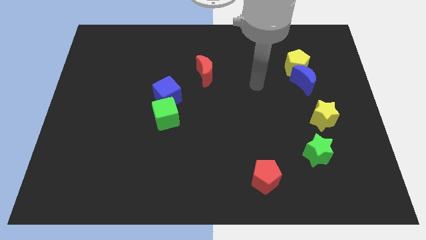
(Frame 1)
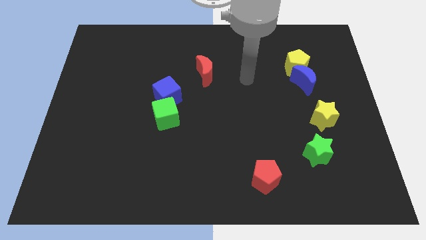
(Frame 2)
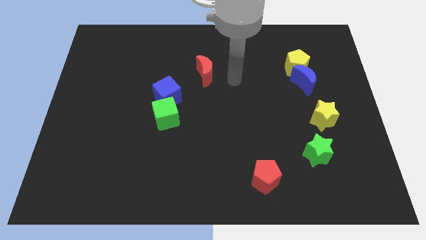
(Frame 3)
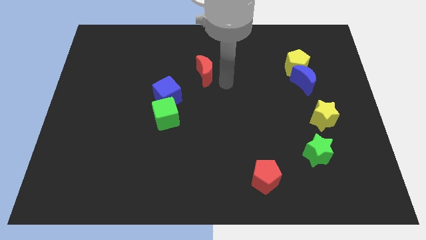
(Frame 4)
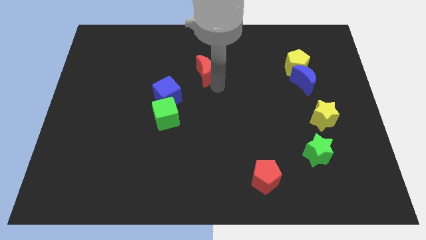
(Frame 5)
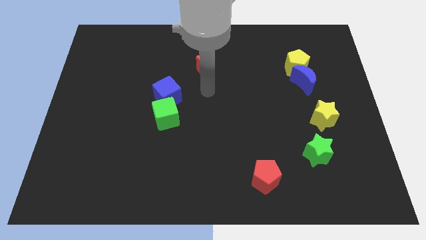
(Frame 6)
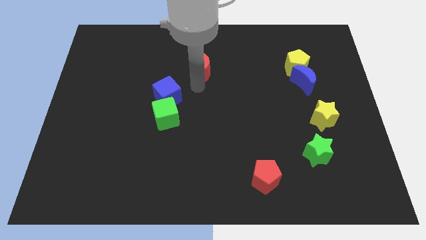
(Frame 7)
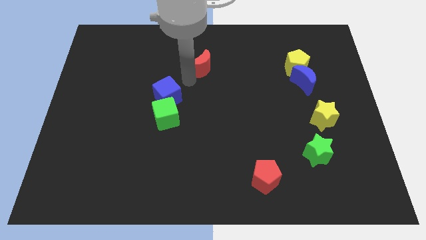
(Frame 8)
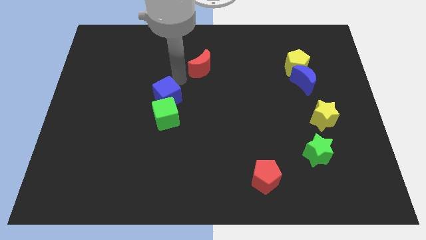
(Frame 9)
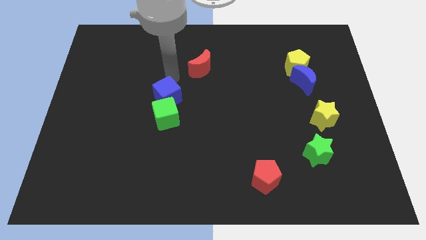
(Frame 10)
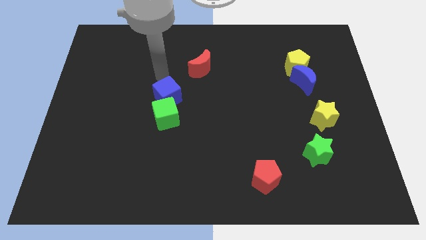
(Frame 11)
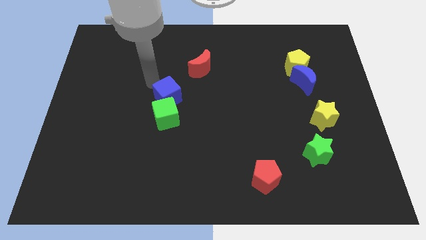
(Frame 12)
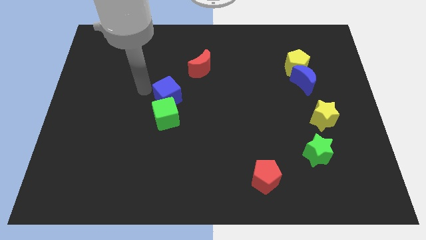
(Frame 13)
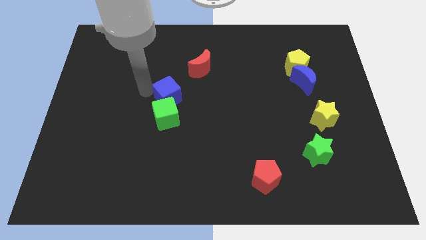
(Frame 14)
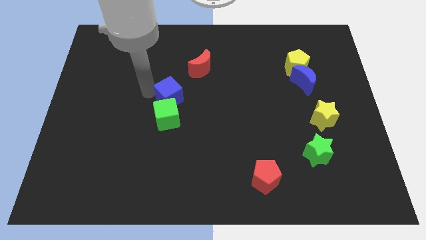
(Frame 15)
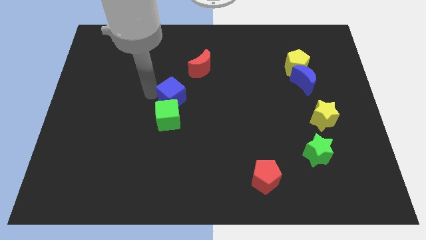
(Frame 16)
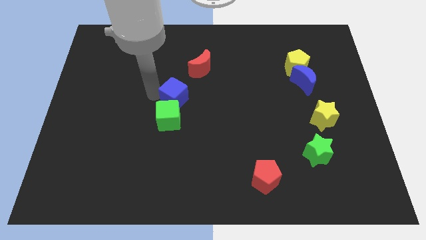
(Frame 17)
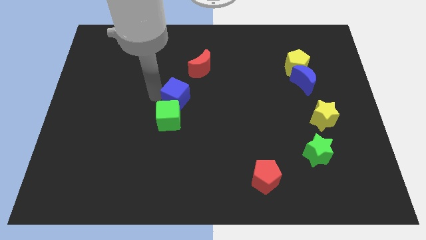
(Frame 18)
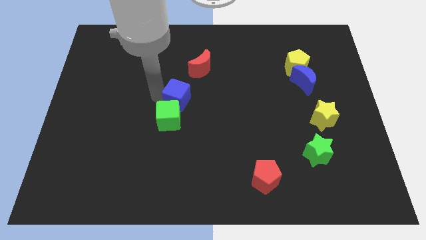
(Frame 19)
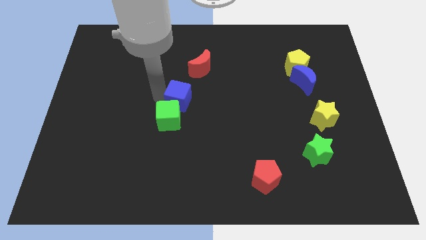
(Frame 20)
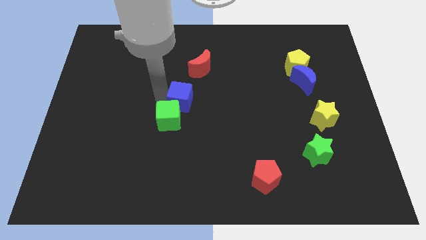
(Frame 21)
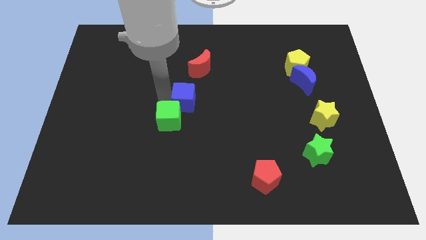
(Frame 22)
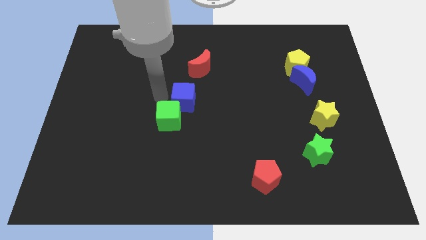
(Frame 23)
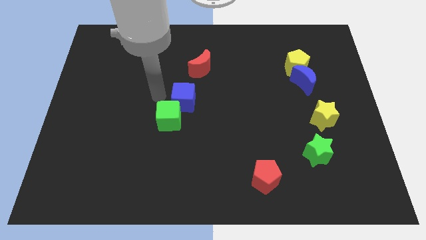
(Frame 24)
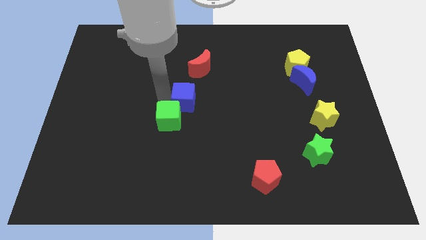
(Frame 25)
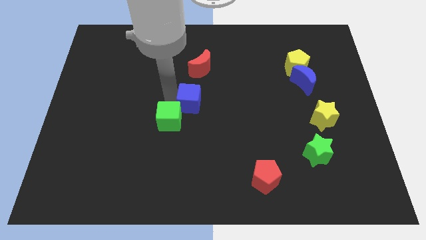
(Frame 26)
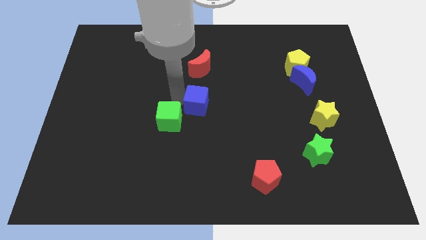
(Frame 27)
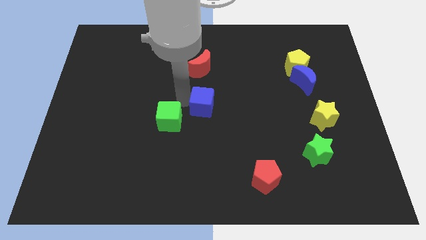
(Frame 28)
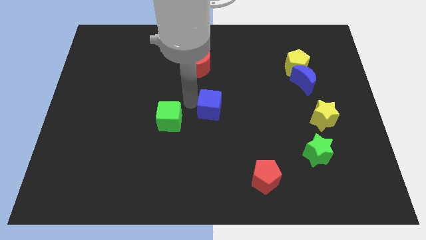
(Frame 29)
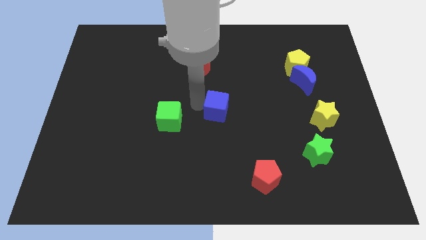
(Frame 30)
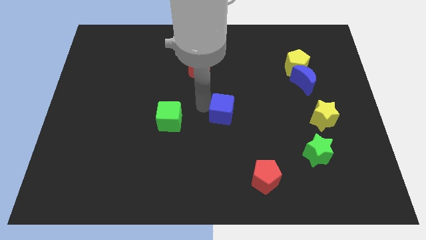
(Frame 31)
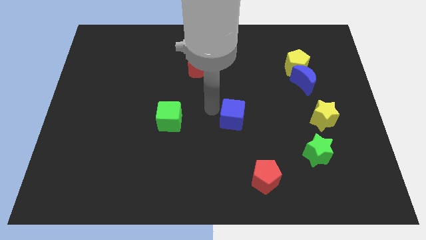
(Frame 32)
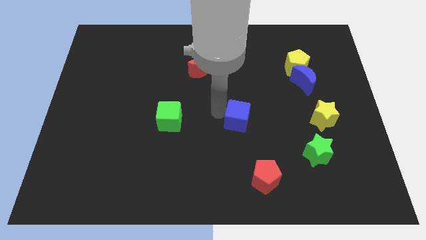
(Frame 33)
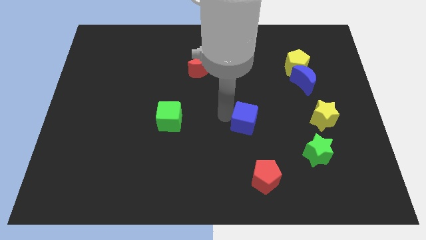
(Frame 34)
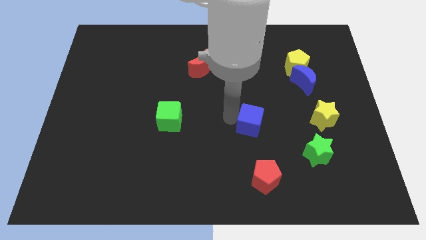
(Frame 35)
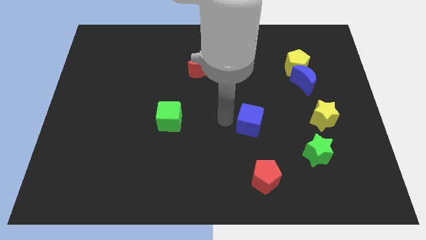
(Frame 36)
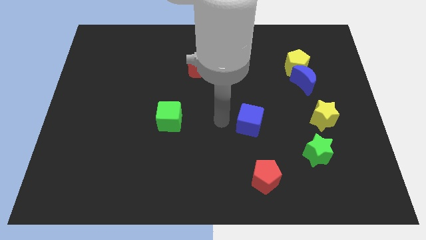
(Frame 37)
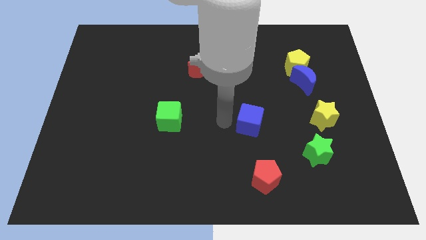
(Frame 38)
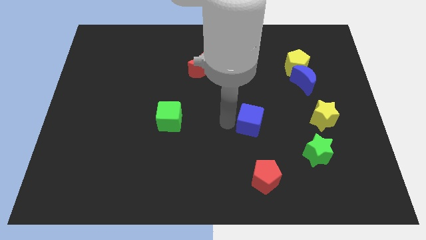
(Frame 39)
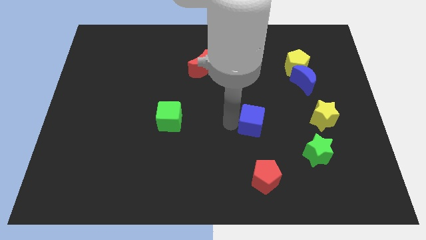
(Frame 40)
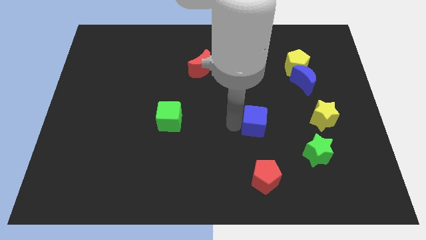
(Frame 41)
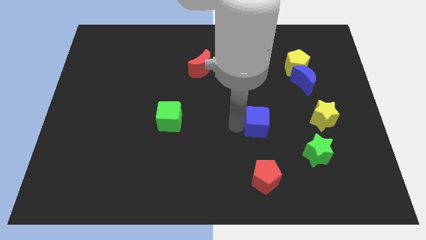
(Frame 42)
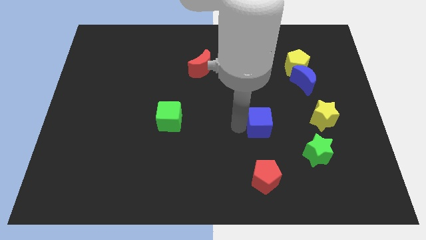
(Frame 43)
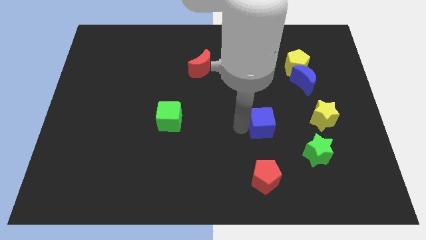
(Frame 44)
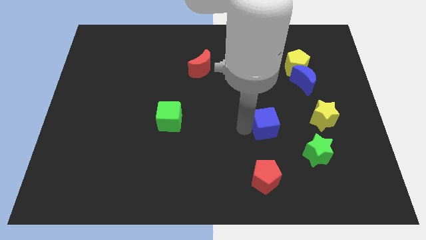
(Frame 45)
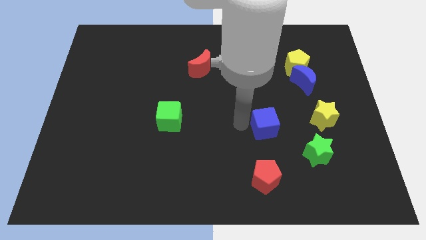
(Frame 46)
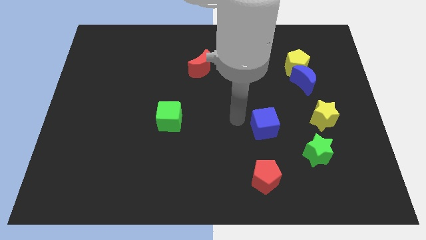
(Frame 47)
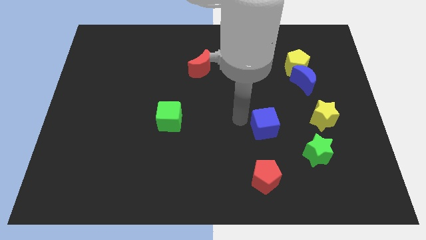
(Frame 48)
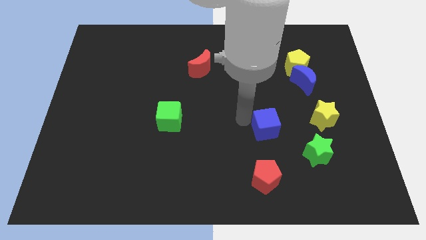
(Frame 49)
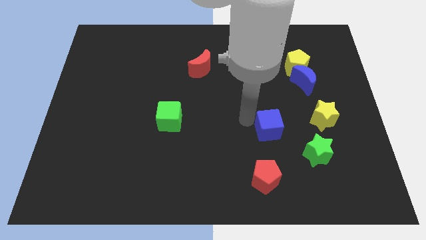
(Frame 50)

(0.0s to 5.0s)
slide the blue cube to the top left side of the green star

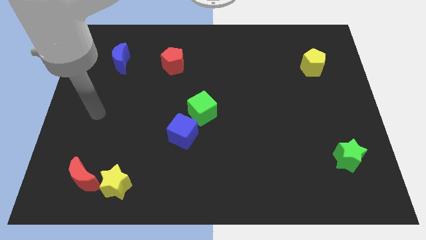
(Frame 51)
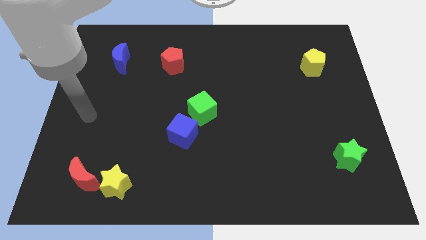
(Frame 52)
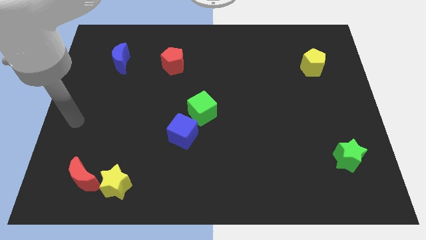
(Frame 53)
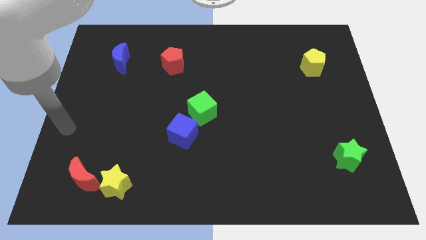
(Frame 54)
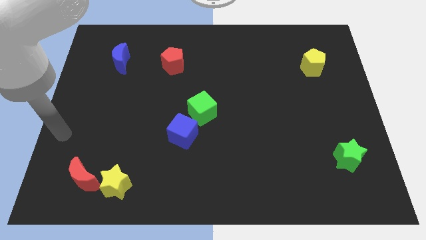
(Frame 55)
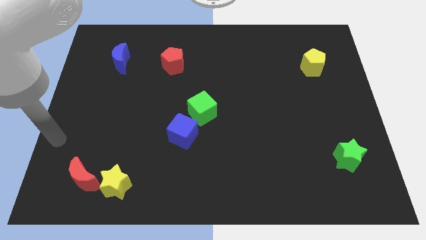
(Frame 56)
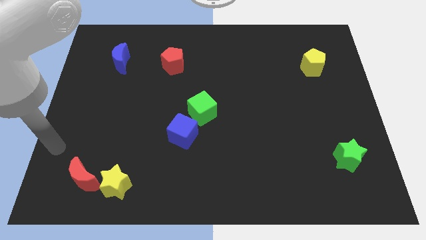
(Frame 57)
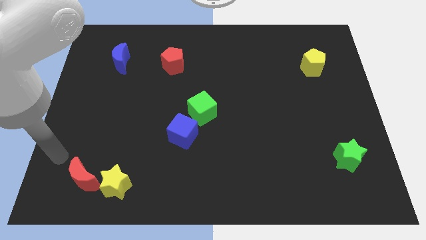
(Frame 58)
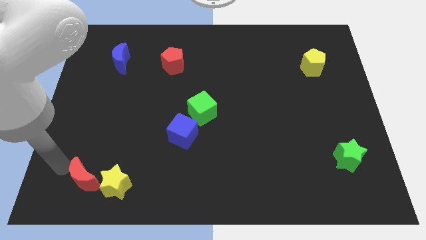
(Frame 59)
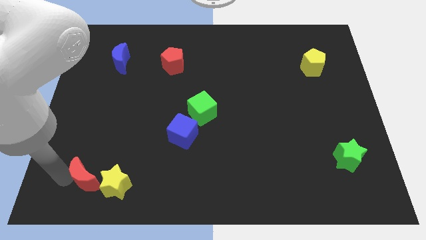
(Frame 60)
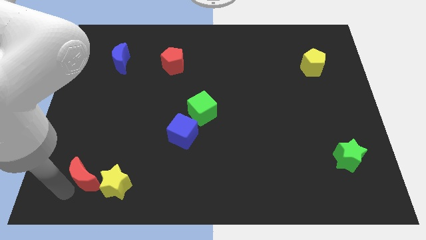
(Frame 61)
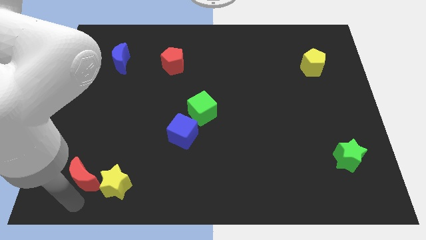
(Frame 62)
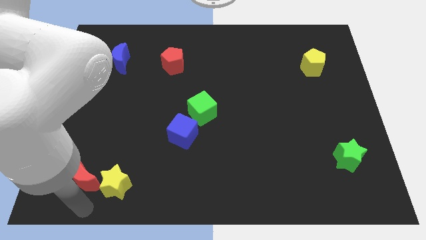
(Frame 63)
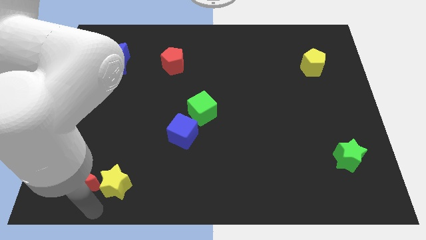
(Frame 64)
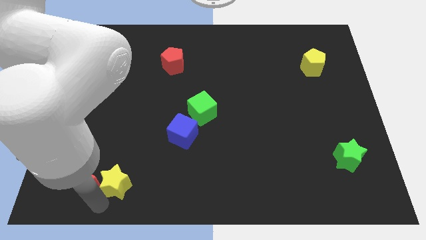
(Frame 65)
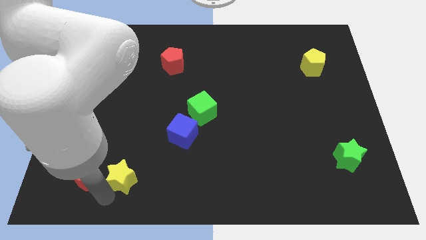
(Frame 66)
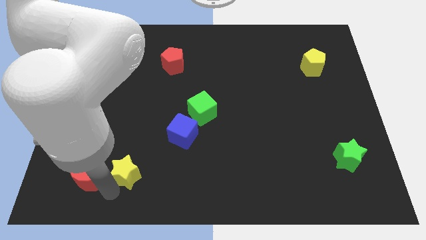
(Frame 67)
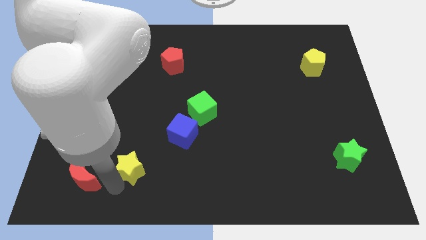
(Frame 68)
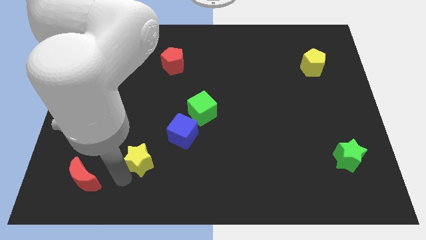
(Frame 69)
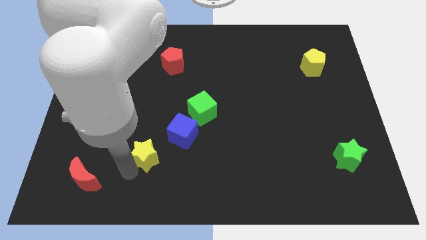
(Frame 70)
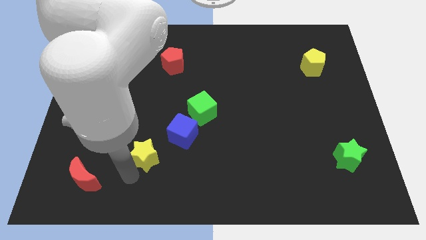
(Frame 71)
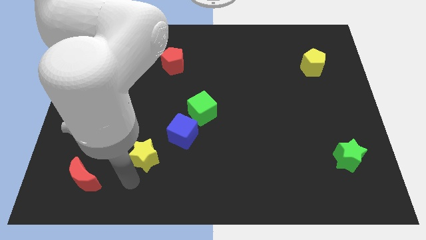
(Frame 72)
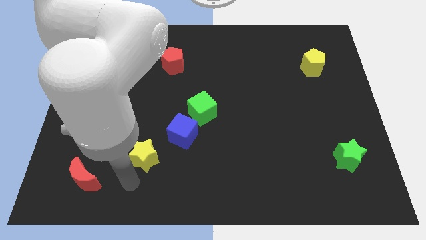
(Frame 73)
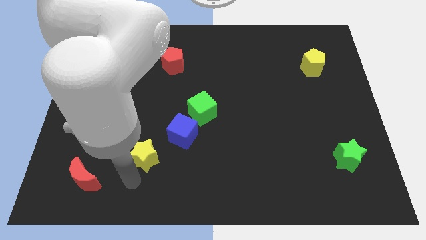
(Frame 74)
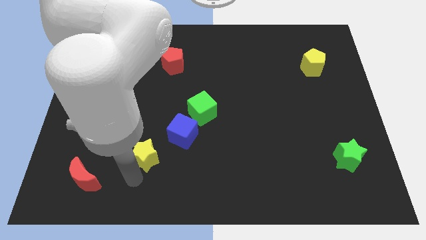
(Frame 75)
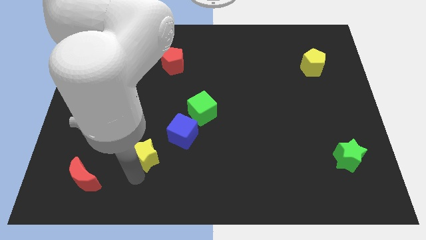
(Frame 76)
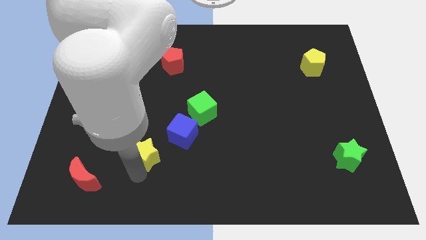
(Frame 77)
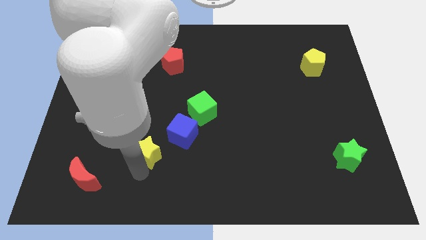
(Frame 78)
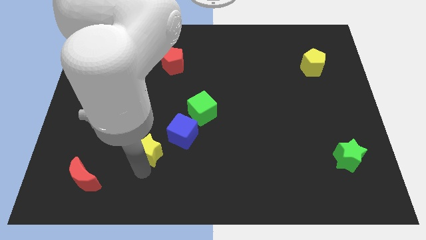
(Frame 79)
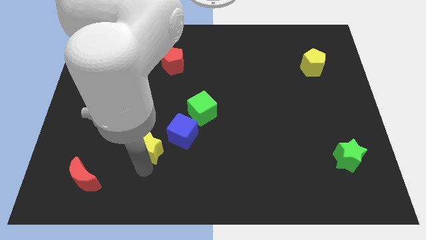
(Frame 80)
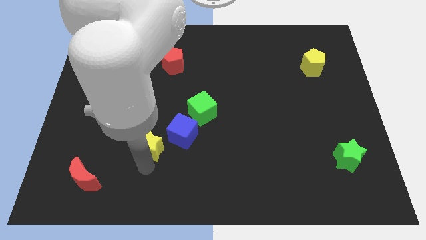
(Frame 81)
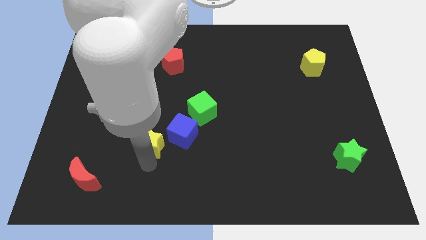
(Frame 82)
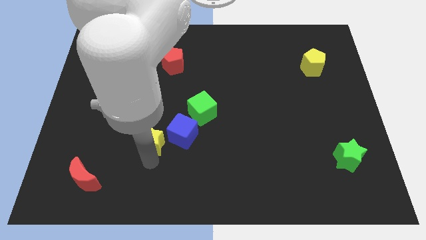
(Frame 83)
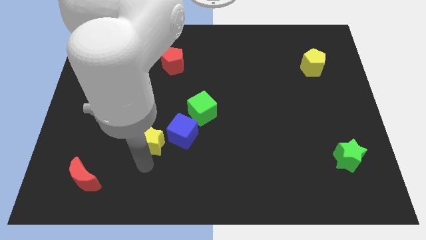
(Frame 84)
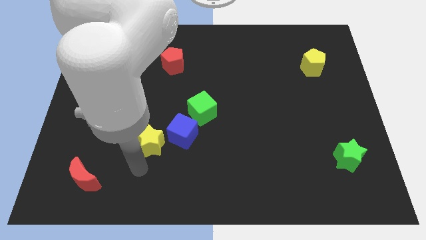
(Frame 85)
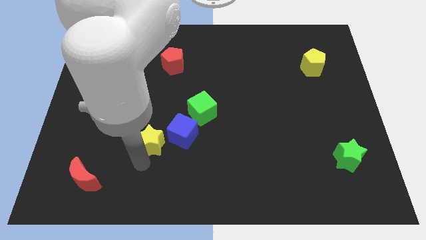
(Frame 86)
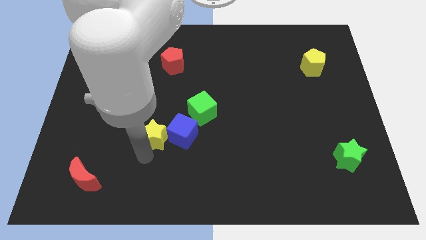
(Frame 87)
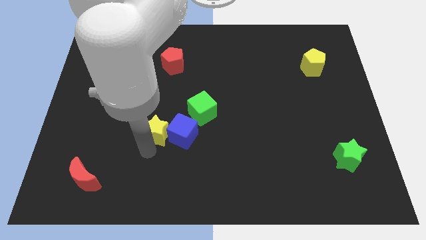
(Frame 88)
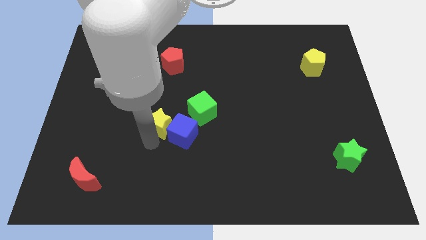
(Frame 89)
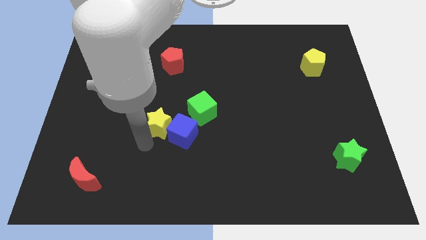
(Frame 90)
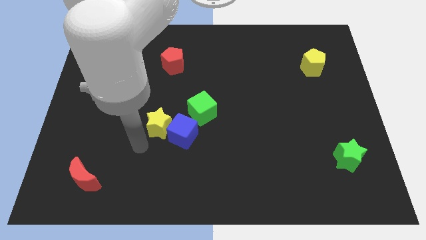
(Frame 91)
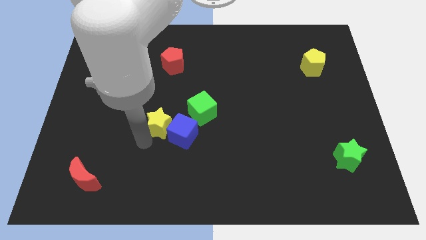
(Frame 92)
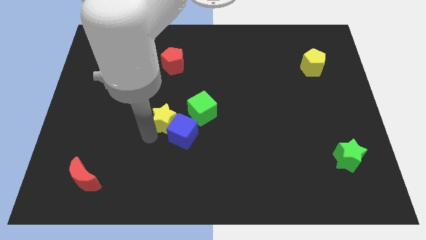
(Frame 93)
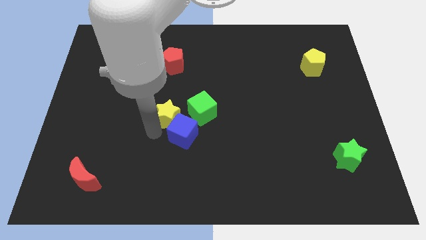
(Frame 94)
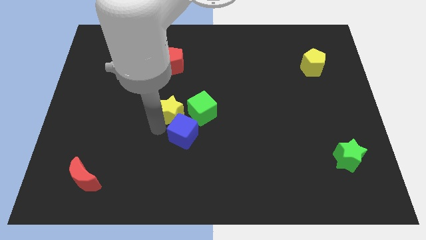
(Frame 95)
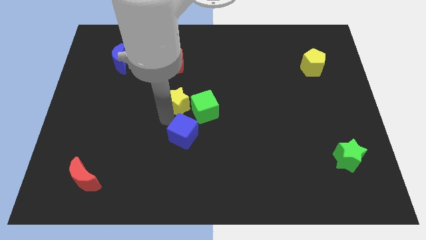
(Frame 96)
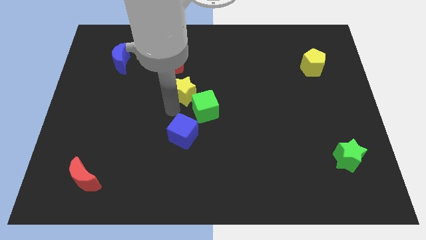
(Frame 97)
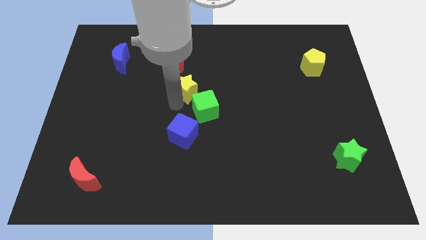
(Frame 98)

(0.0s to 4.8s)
move the yellow star to the top of the green cube
